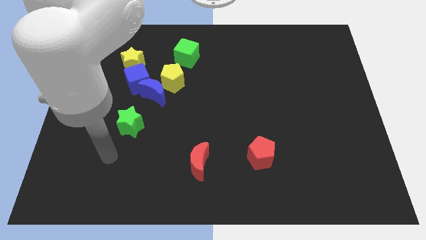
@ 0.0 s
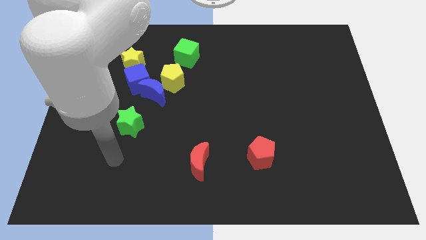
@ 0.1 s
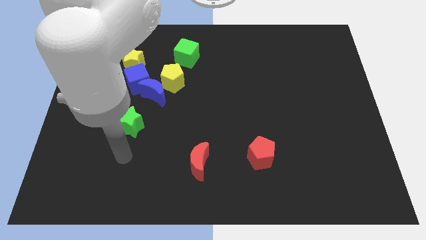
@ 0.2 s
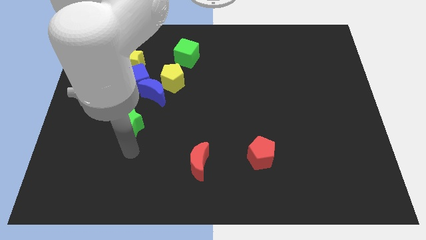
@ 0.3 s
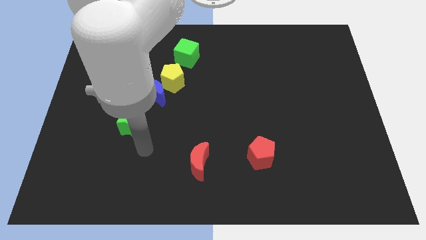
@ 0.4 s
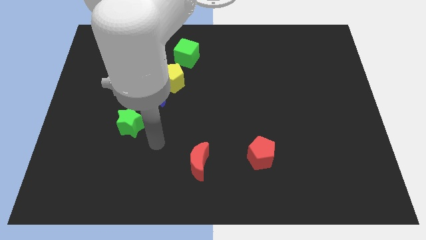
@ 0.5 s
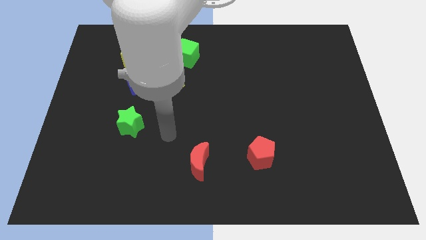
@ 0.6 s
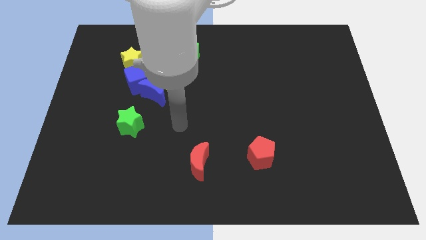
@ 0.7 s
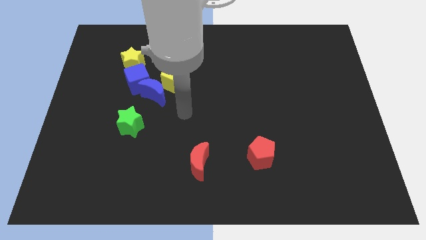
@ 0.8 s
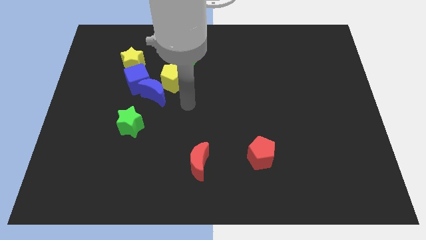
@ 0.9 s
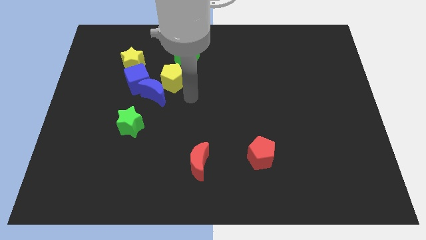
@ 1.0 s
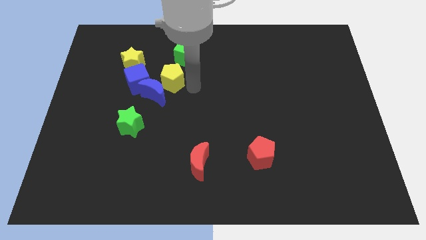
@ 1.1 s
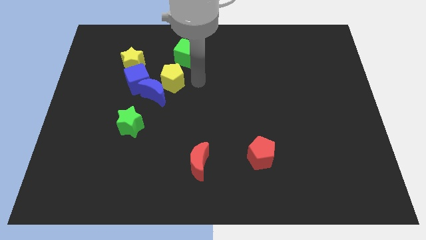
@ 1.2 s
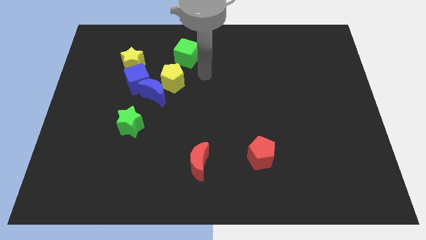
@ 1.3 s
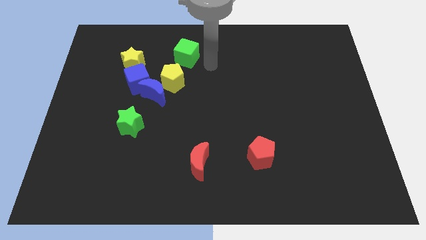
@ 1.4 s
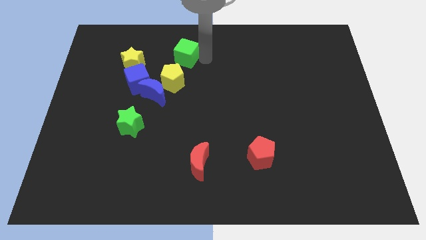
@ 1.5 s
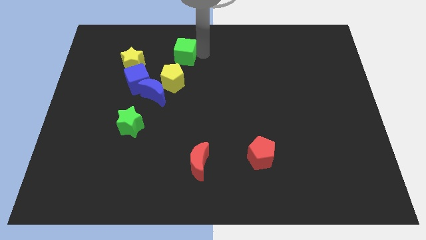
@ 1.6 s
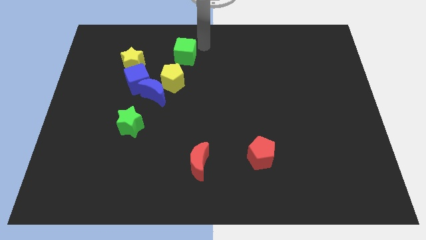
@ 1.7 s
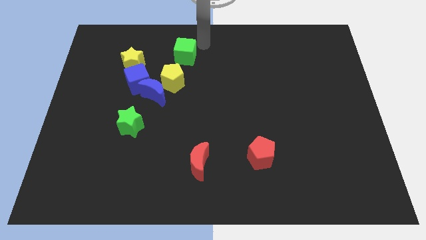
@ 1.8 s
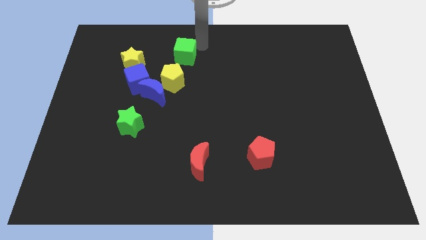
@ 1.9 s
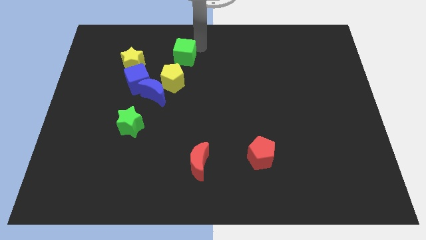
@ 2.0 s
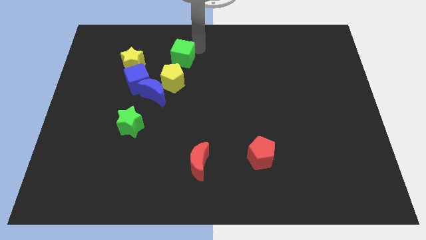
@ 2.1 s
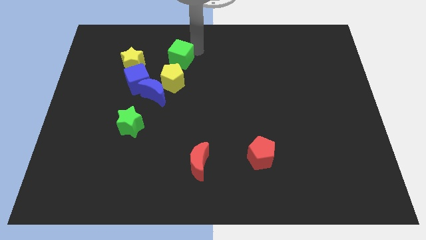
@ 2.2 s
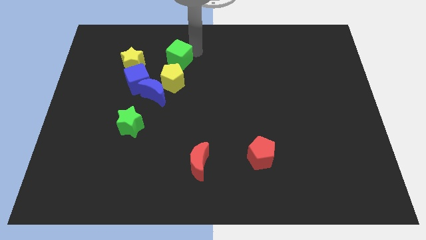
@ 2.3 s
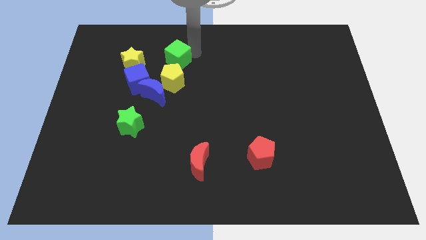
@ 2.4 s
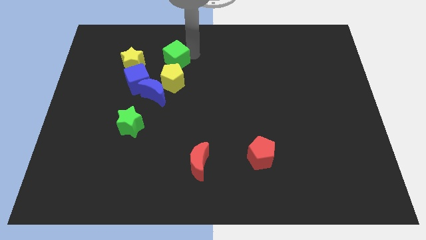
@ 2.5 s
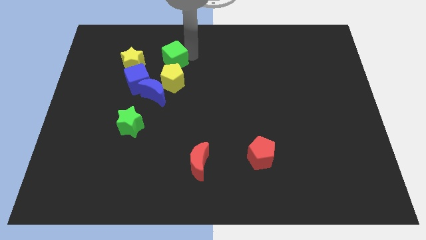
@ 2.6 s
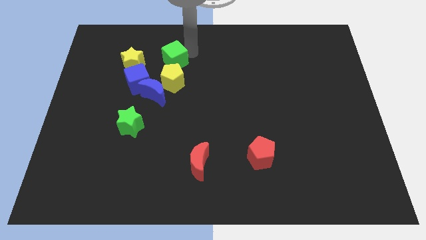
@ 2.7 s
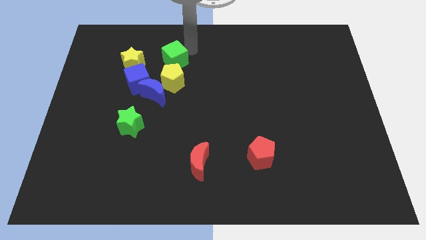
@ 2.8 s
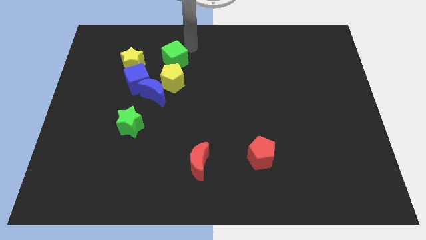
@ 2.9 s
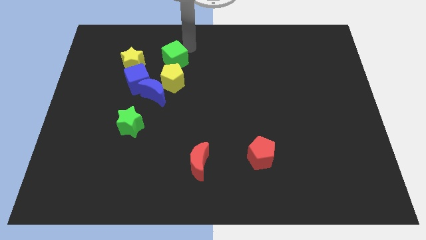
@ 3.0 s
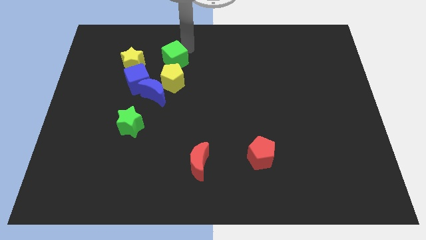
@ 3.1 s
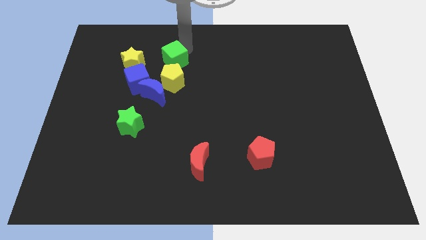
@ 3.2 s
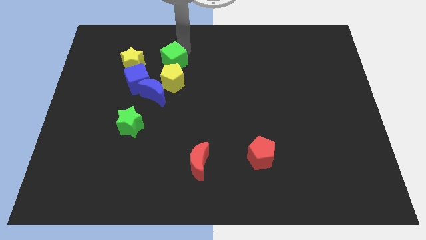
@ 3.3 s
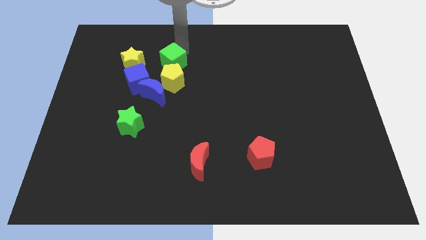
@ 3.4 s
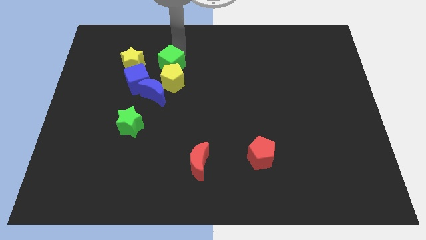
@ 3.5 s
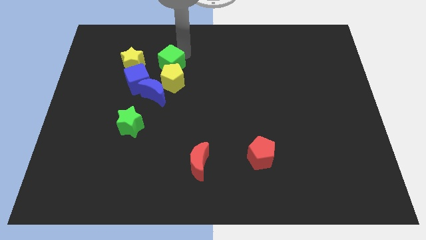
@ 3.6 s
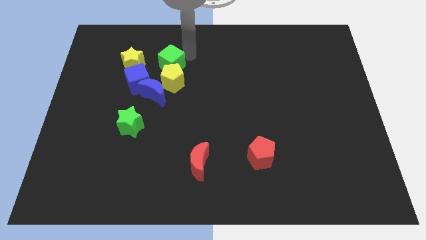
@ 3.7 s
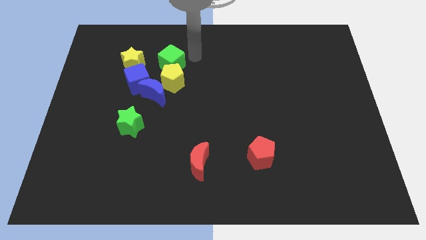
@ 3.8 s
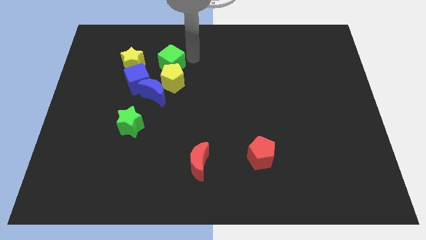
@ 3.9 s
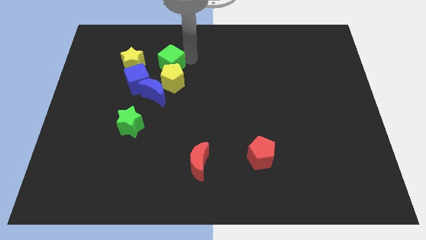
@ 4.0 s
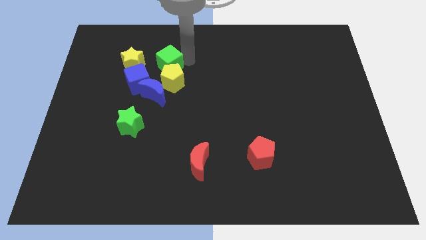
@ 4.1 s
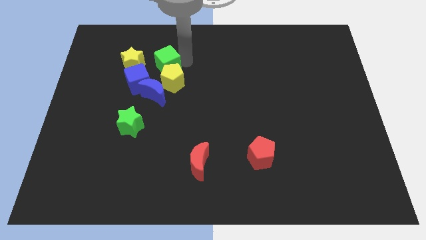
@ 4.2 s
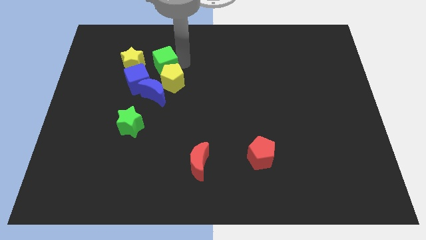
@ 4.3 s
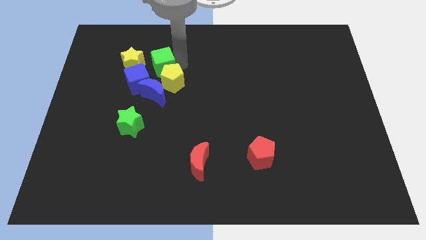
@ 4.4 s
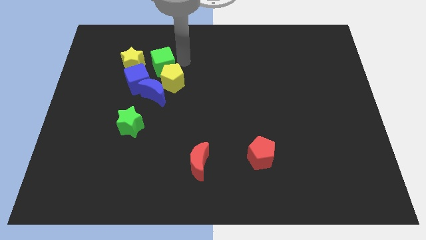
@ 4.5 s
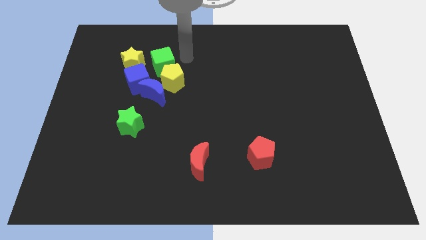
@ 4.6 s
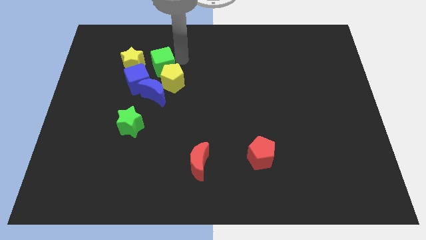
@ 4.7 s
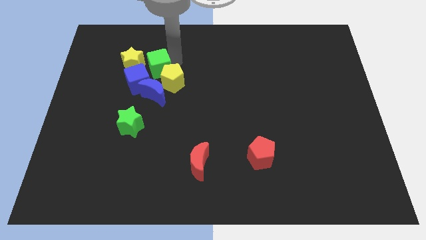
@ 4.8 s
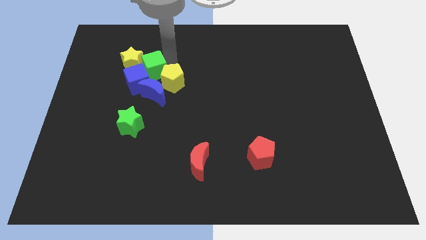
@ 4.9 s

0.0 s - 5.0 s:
put the green cube close to the blue cube

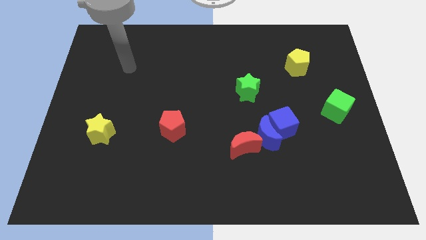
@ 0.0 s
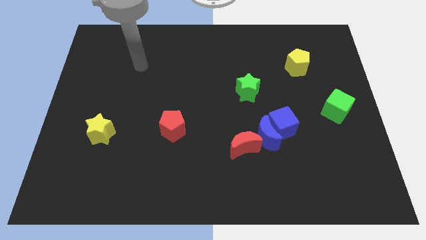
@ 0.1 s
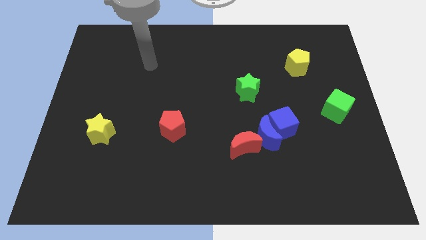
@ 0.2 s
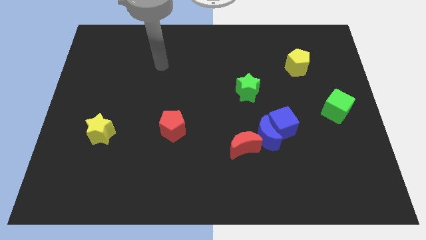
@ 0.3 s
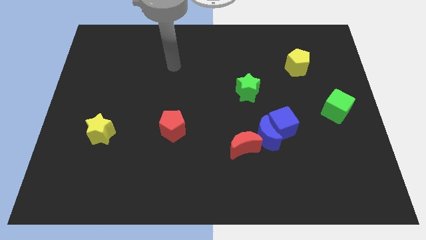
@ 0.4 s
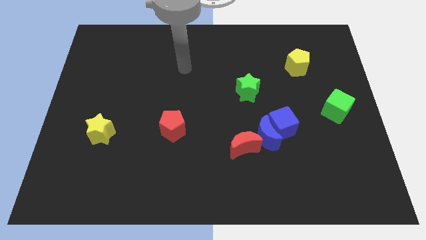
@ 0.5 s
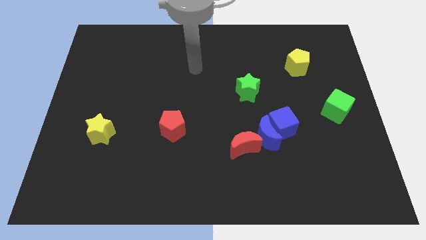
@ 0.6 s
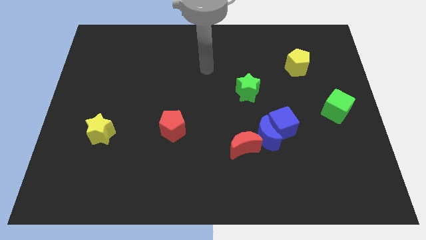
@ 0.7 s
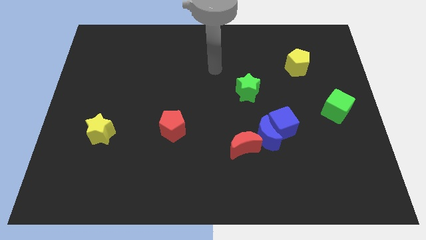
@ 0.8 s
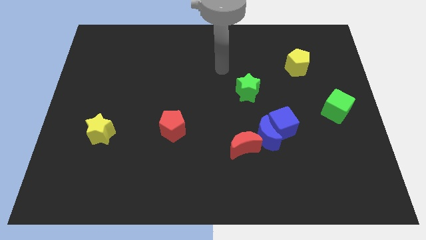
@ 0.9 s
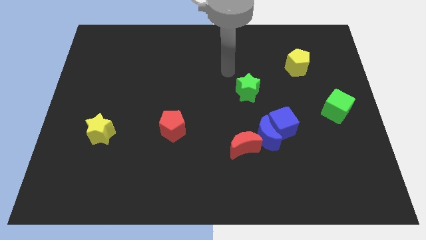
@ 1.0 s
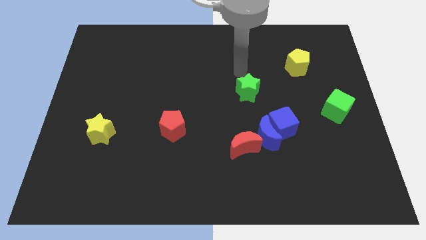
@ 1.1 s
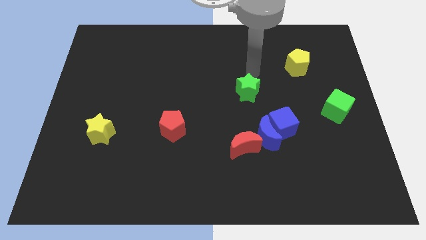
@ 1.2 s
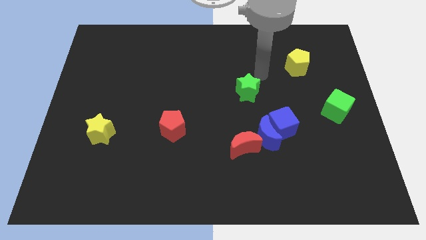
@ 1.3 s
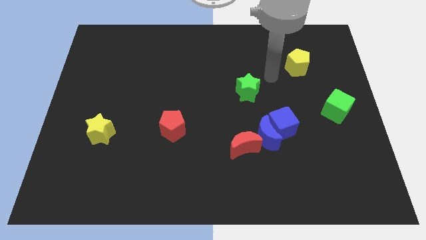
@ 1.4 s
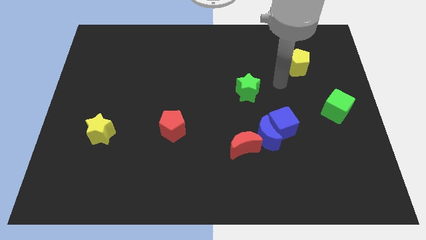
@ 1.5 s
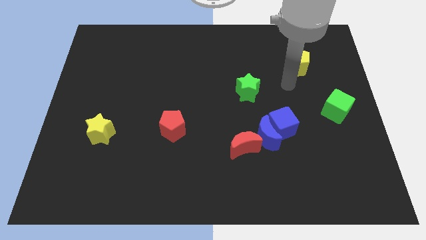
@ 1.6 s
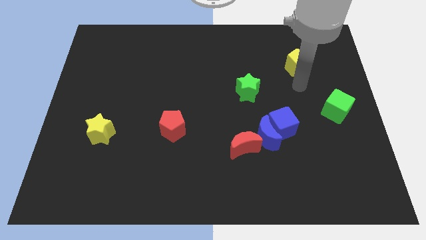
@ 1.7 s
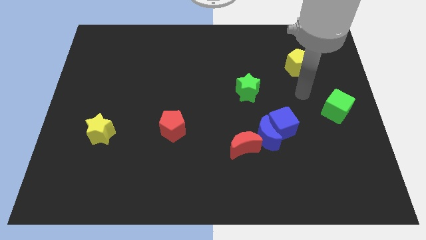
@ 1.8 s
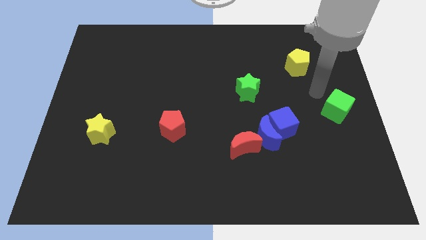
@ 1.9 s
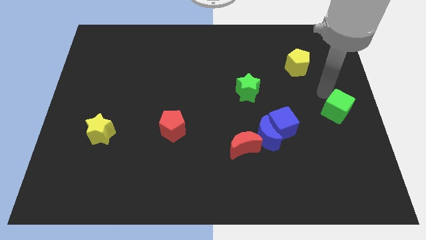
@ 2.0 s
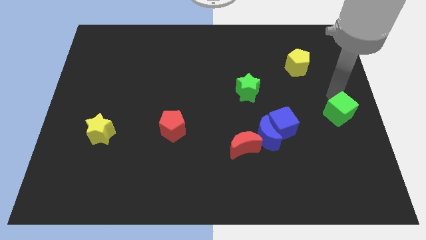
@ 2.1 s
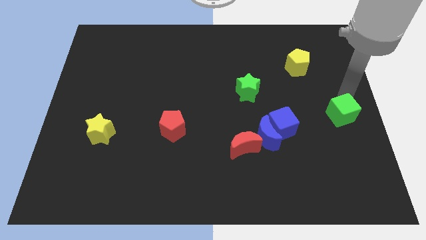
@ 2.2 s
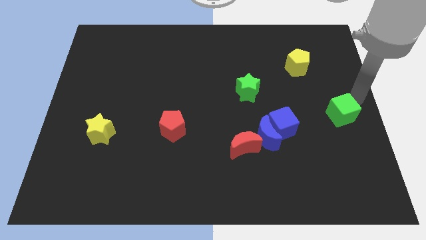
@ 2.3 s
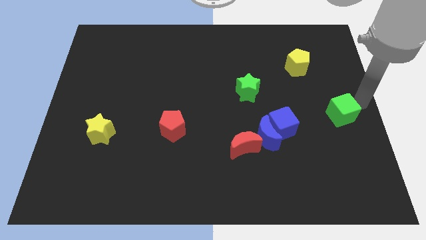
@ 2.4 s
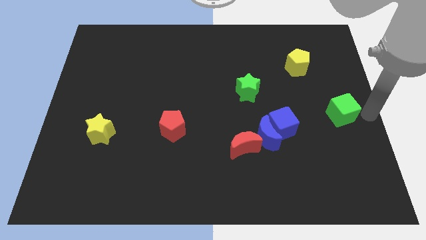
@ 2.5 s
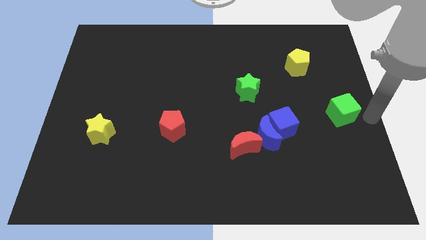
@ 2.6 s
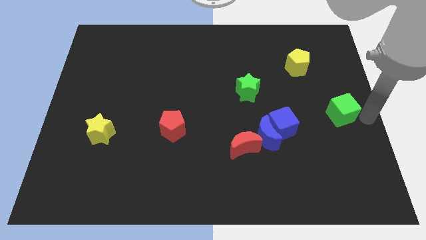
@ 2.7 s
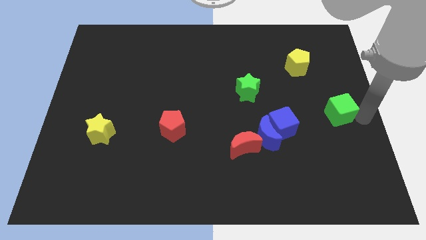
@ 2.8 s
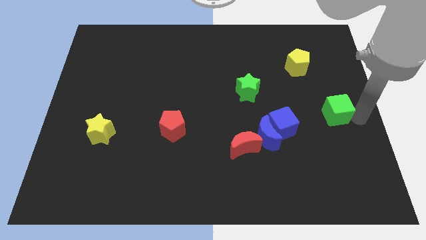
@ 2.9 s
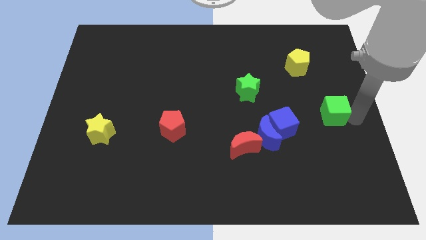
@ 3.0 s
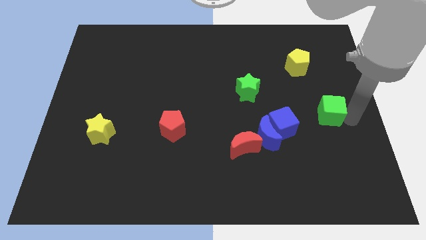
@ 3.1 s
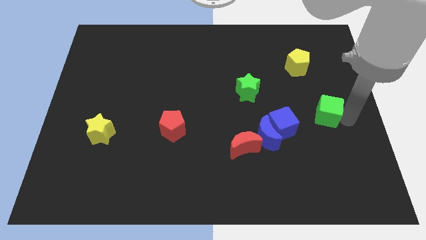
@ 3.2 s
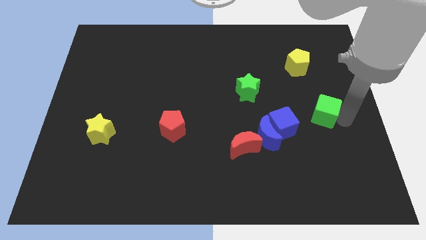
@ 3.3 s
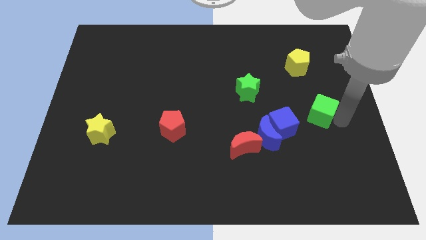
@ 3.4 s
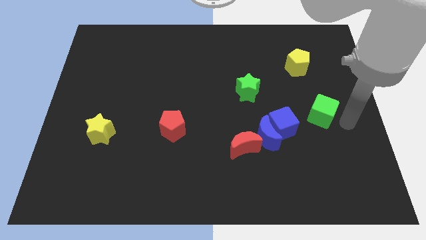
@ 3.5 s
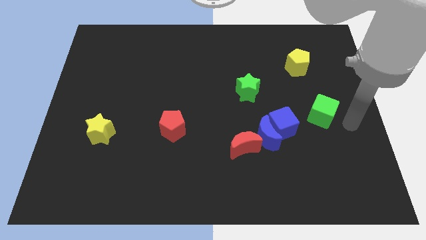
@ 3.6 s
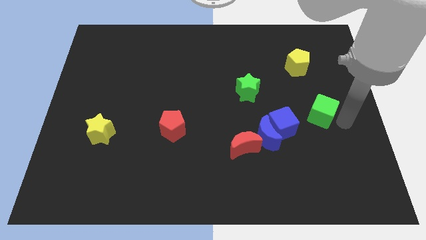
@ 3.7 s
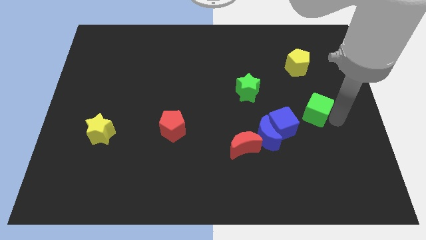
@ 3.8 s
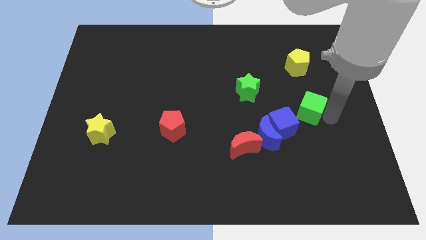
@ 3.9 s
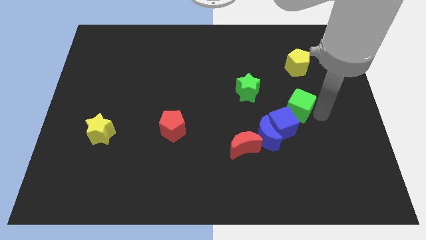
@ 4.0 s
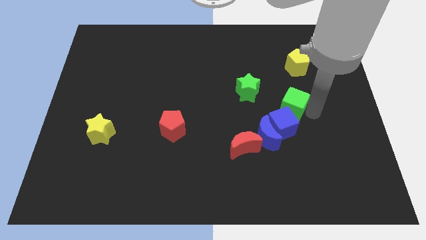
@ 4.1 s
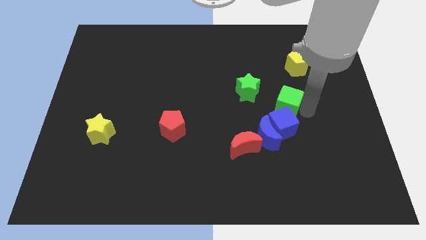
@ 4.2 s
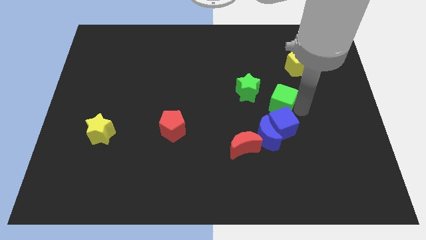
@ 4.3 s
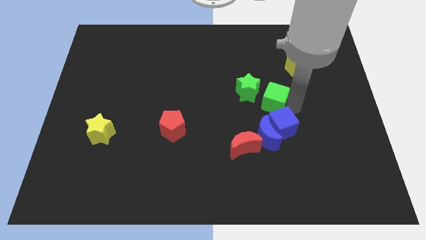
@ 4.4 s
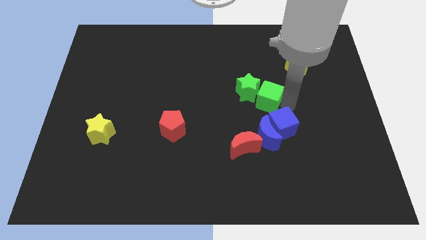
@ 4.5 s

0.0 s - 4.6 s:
move the green cube close to the green star
